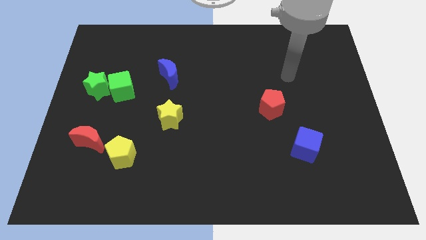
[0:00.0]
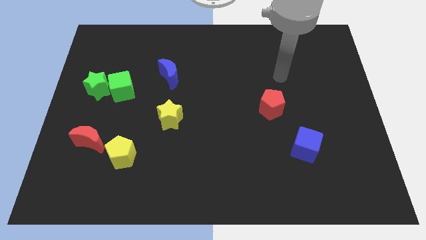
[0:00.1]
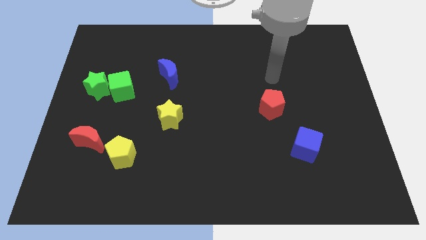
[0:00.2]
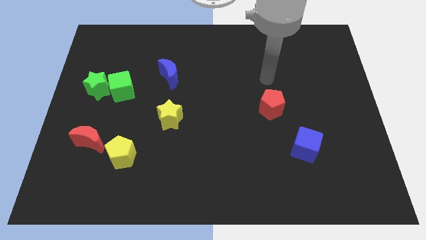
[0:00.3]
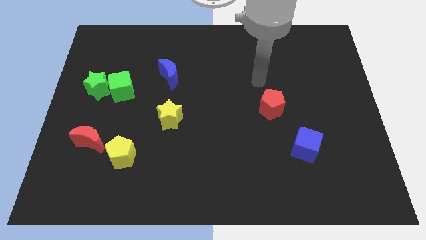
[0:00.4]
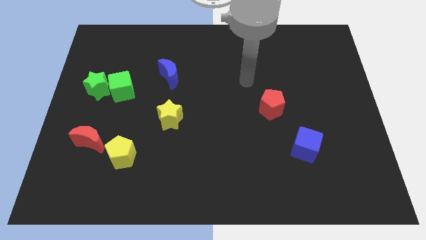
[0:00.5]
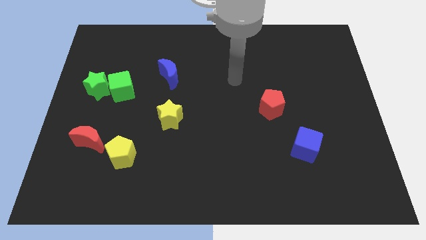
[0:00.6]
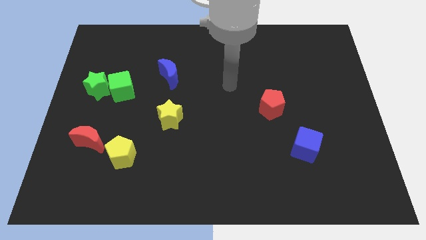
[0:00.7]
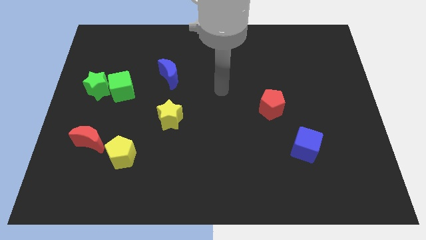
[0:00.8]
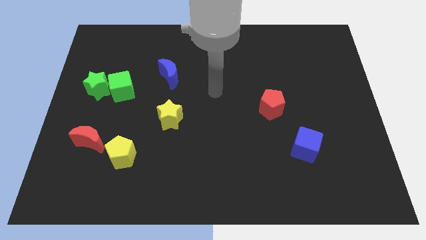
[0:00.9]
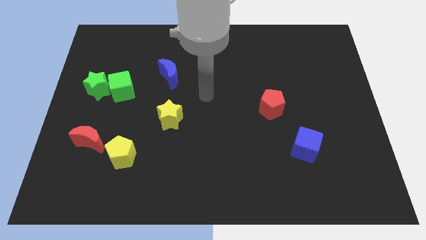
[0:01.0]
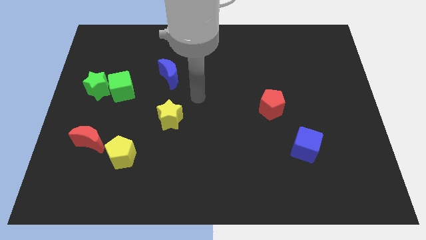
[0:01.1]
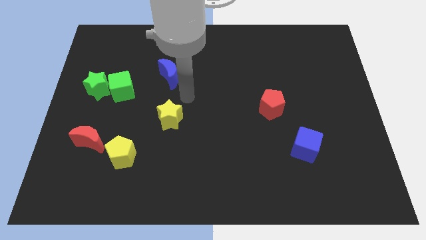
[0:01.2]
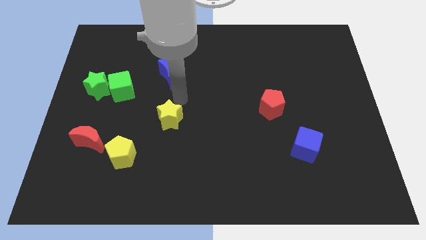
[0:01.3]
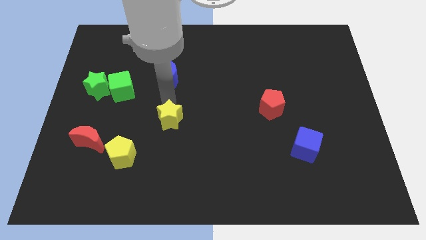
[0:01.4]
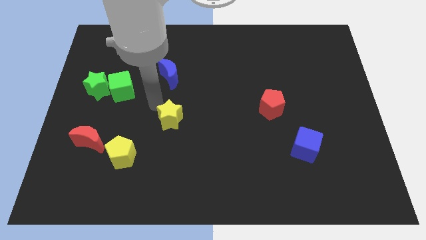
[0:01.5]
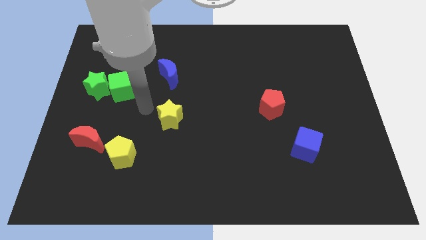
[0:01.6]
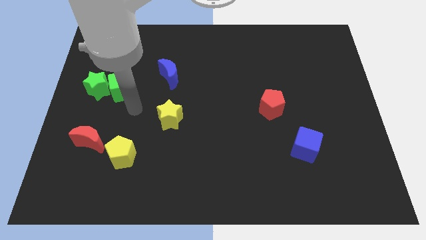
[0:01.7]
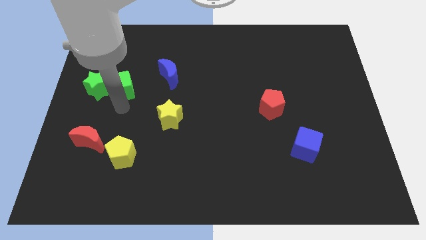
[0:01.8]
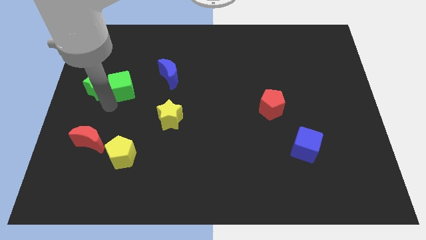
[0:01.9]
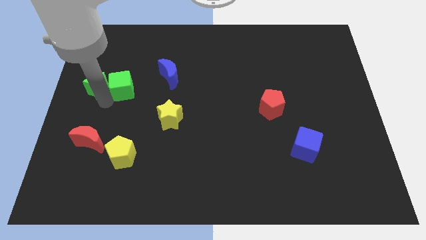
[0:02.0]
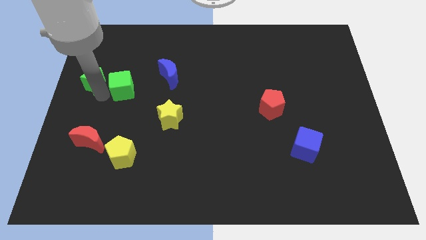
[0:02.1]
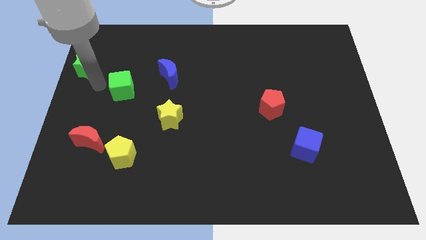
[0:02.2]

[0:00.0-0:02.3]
move the green cube away from the green star

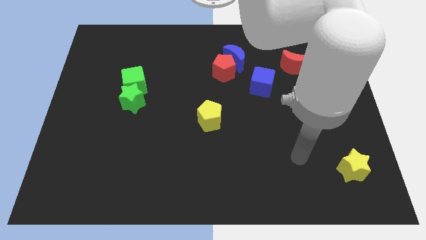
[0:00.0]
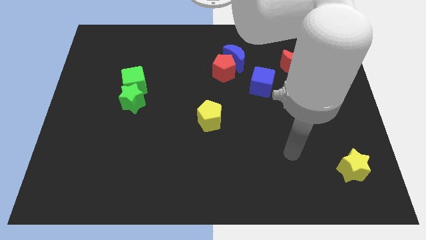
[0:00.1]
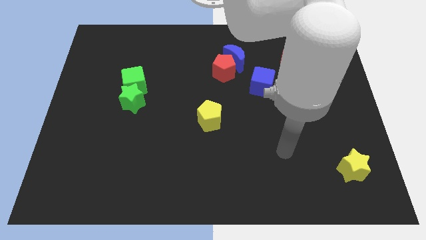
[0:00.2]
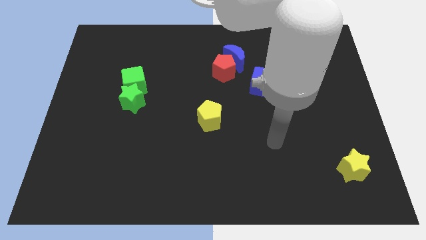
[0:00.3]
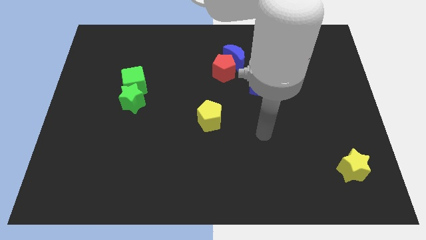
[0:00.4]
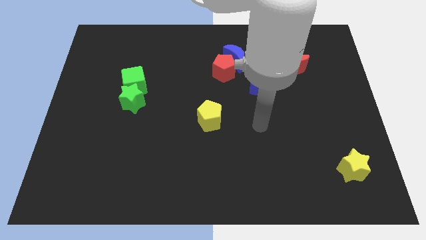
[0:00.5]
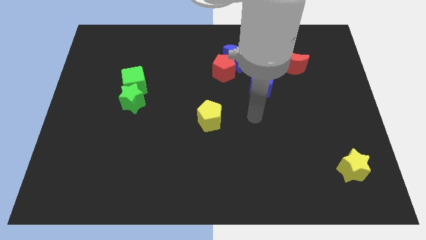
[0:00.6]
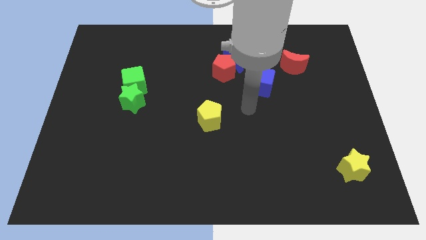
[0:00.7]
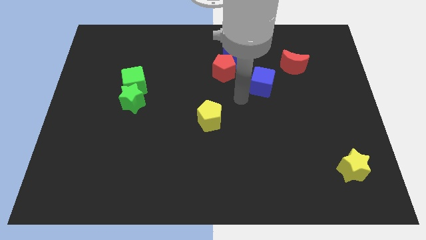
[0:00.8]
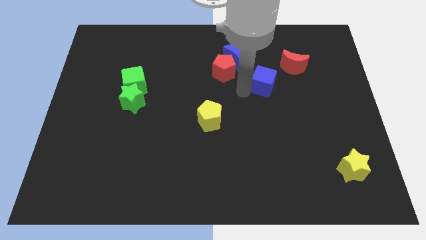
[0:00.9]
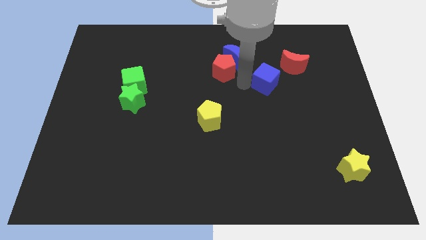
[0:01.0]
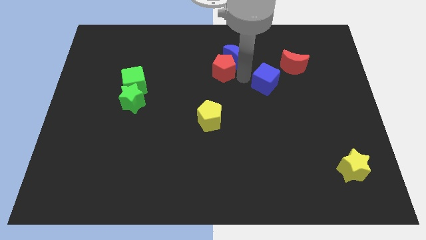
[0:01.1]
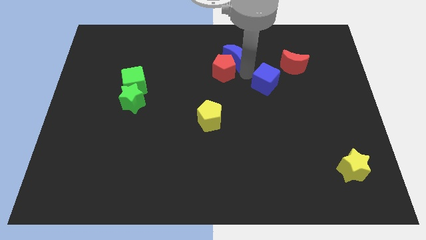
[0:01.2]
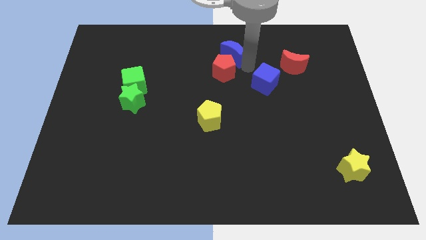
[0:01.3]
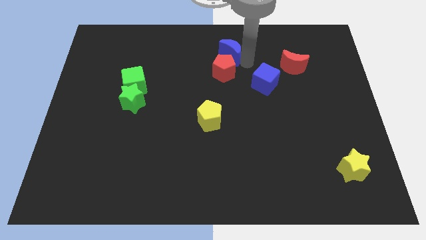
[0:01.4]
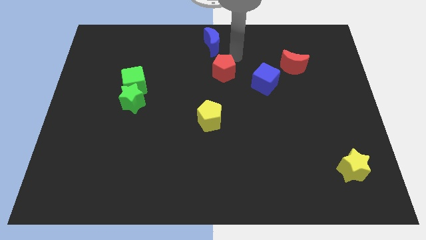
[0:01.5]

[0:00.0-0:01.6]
separate the red pentagon from the blue moon

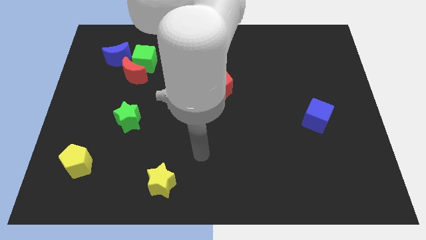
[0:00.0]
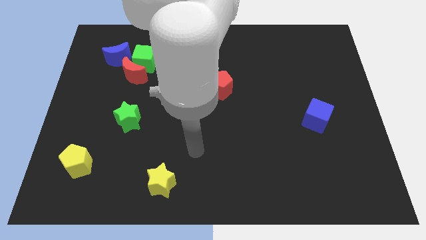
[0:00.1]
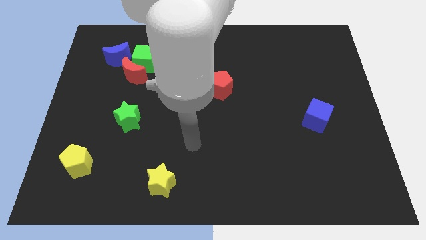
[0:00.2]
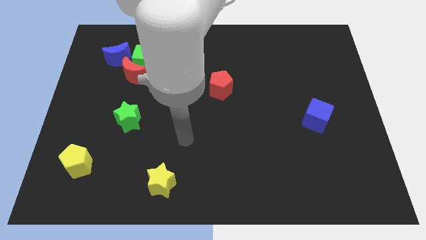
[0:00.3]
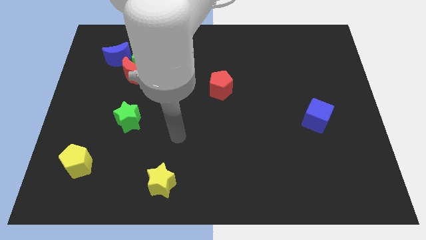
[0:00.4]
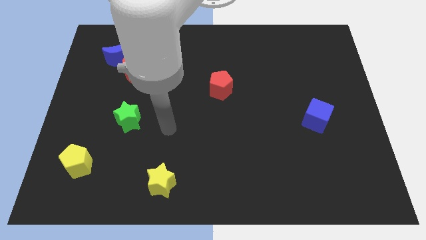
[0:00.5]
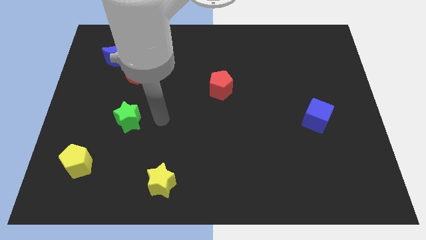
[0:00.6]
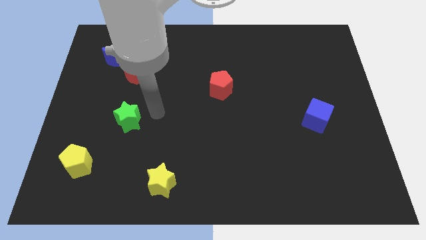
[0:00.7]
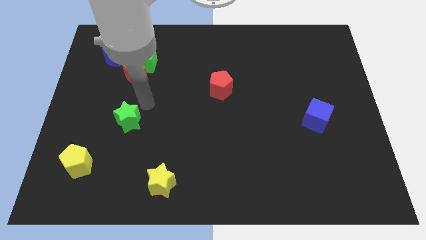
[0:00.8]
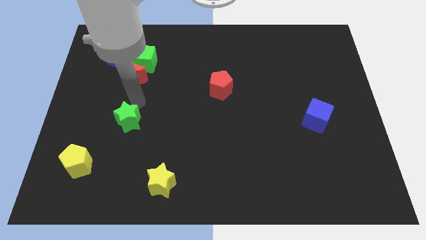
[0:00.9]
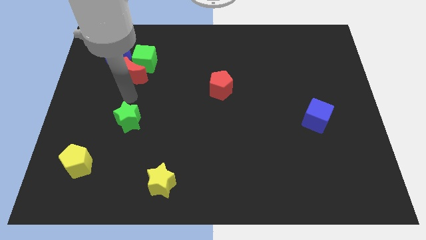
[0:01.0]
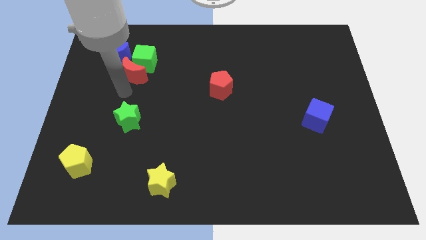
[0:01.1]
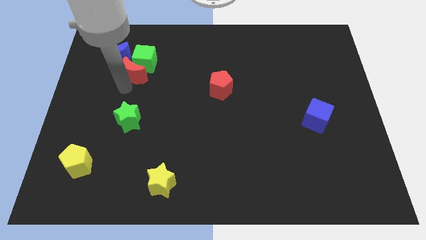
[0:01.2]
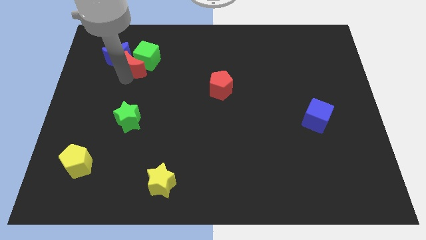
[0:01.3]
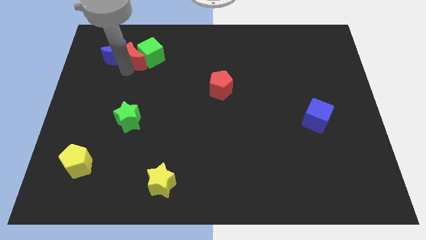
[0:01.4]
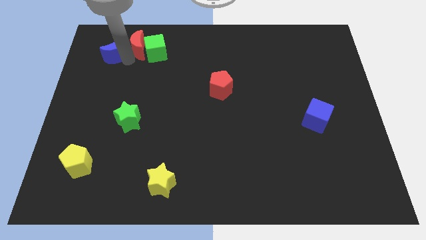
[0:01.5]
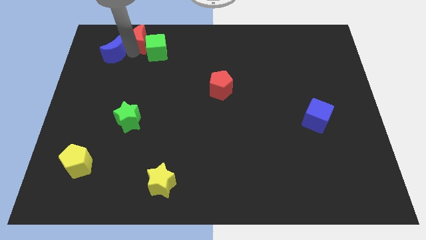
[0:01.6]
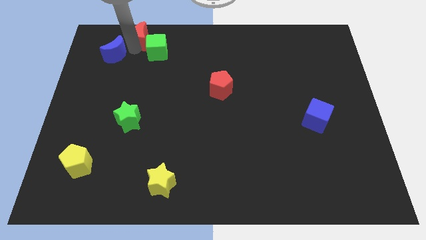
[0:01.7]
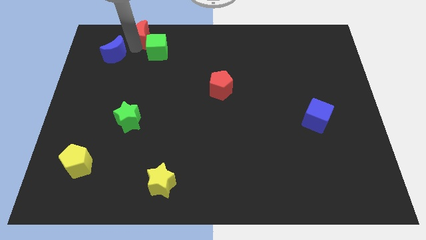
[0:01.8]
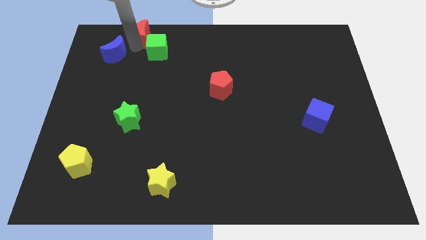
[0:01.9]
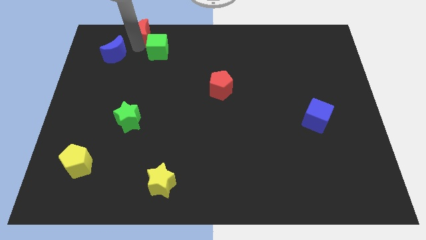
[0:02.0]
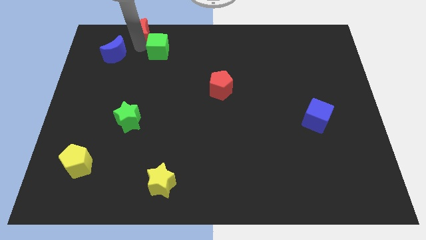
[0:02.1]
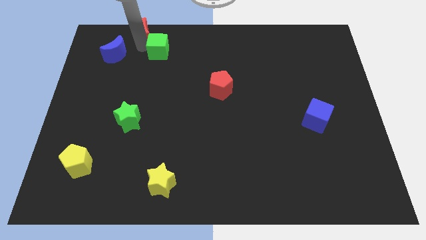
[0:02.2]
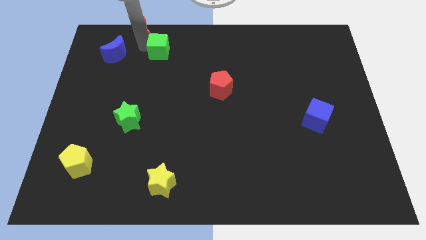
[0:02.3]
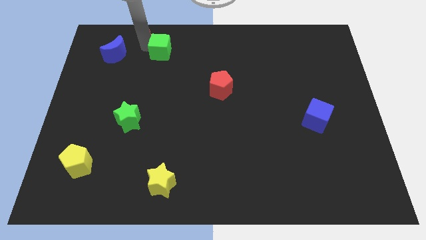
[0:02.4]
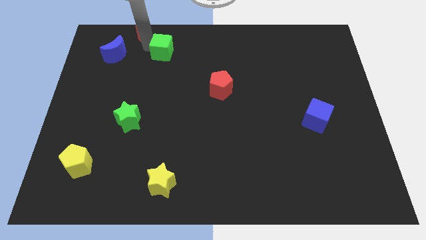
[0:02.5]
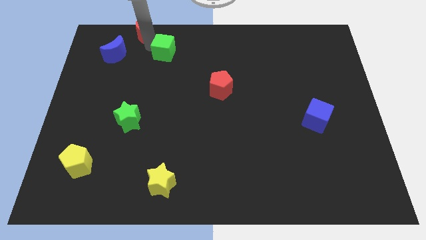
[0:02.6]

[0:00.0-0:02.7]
pull the green cube apart from the red moon and blue moon

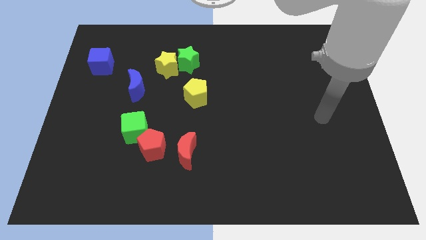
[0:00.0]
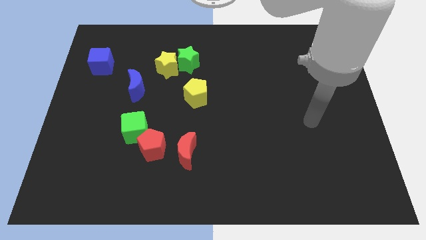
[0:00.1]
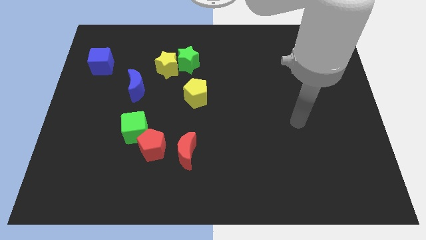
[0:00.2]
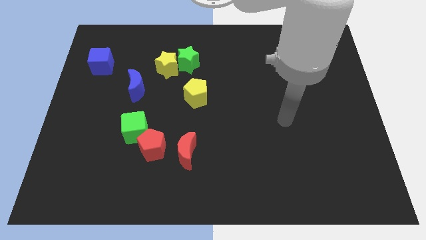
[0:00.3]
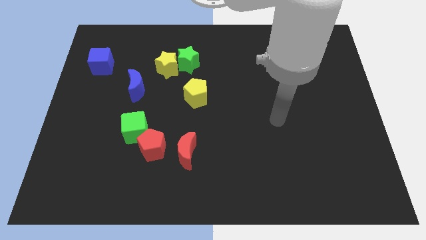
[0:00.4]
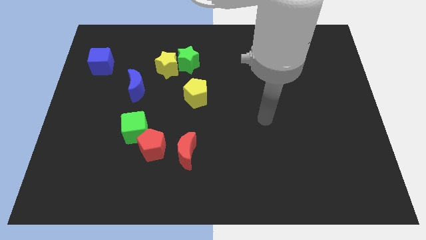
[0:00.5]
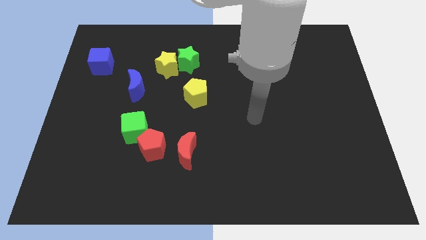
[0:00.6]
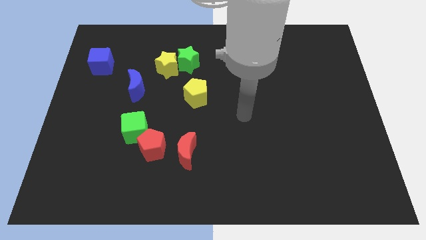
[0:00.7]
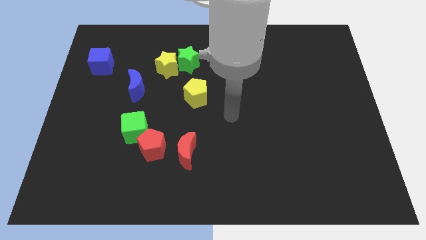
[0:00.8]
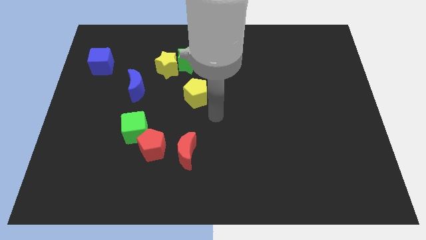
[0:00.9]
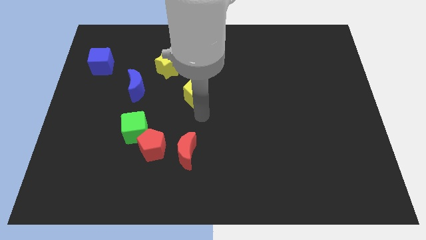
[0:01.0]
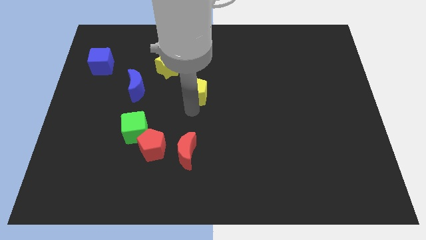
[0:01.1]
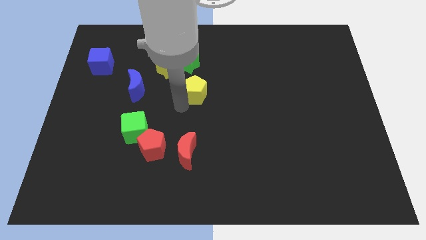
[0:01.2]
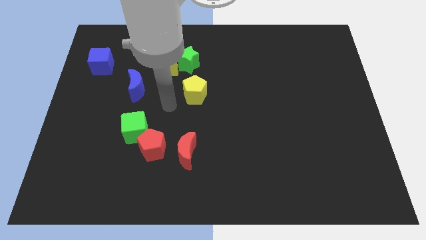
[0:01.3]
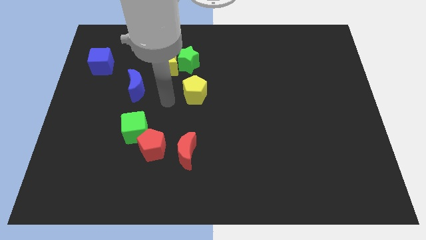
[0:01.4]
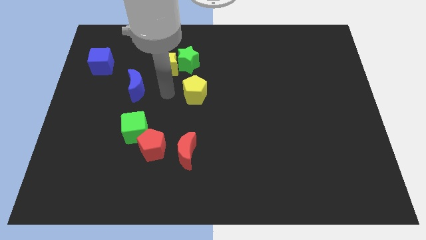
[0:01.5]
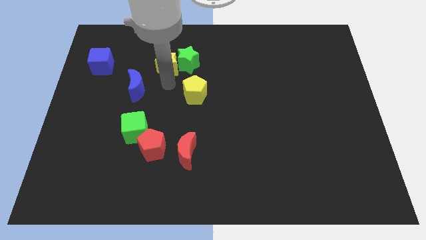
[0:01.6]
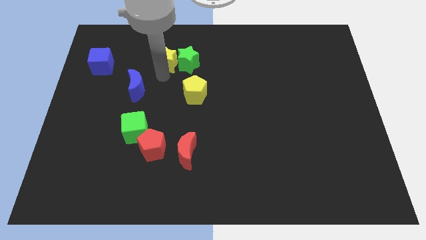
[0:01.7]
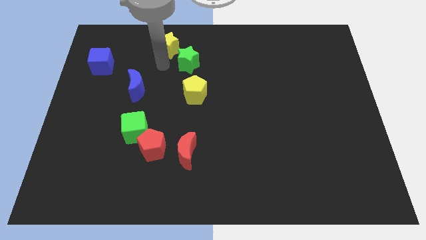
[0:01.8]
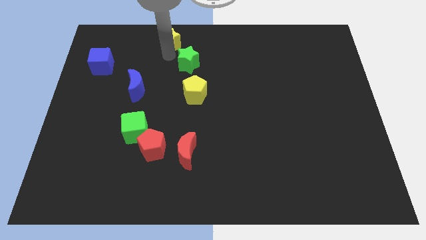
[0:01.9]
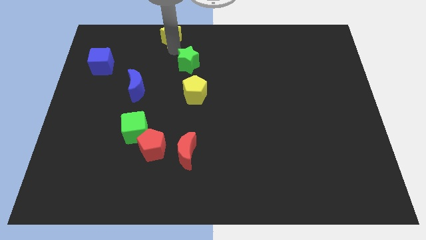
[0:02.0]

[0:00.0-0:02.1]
move the green star away from the yellow star

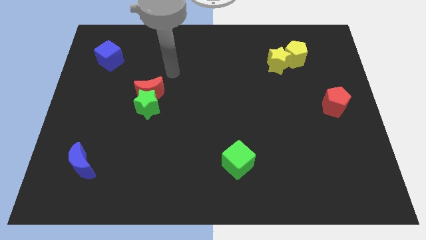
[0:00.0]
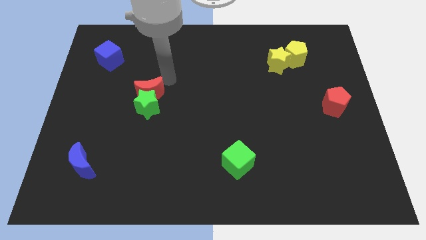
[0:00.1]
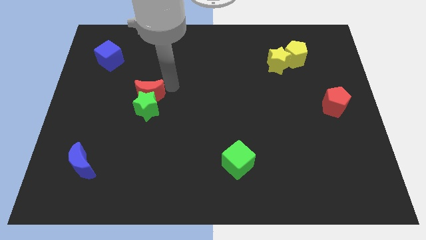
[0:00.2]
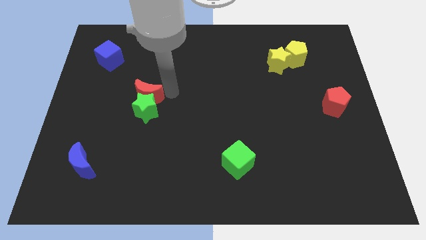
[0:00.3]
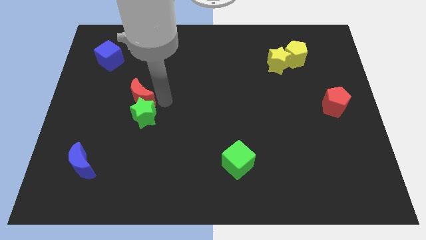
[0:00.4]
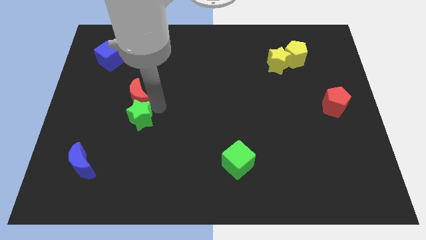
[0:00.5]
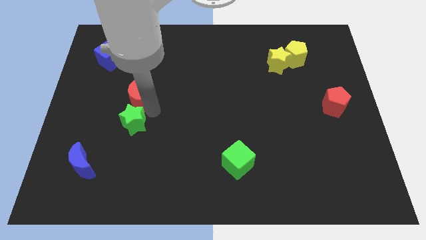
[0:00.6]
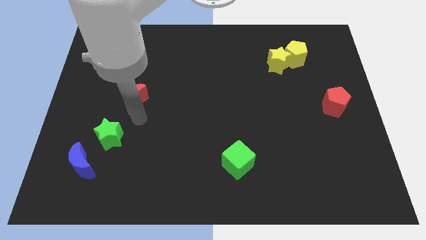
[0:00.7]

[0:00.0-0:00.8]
pull the red moon apart from the green star
